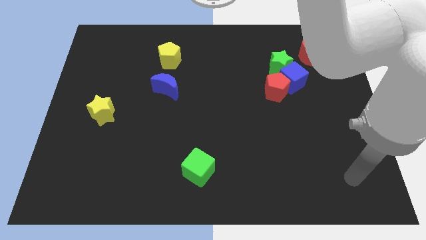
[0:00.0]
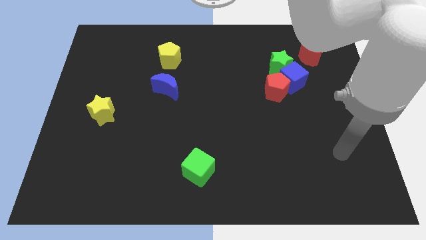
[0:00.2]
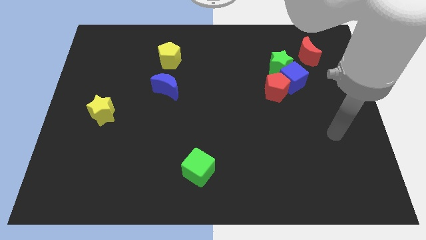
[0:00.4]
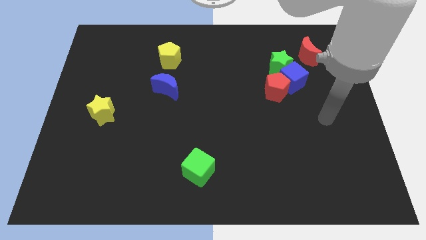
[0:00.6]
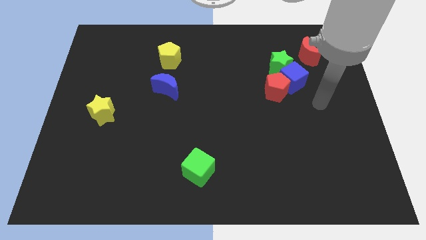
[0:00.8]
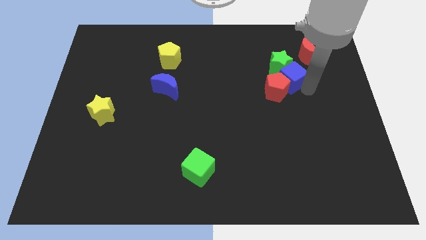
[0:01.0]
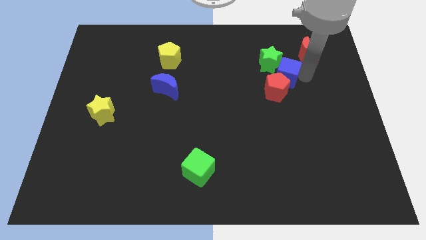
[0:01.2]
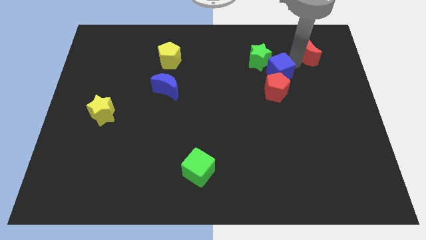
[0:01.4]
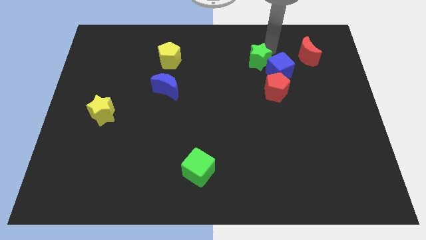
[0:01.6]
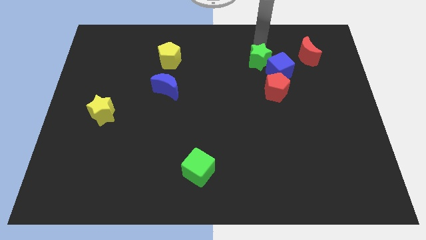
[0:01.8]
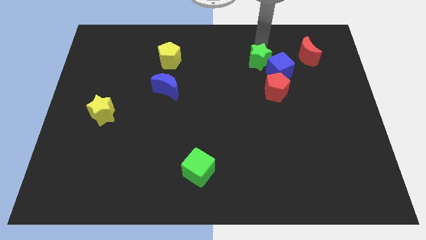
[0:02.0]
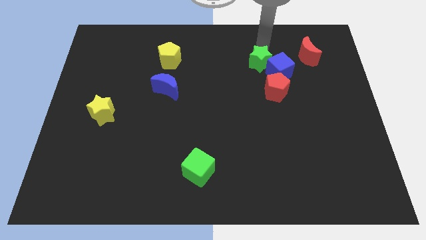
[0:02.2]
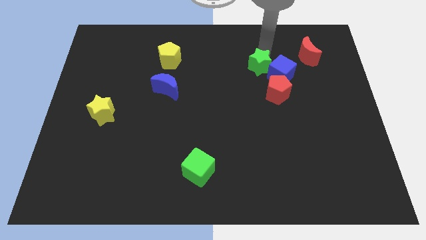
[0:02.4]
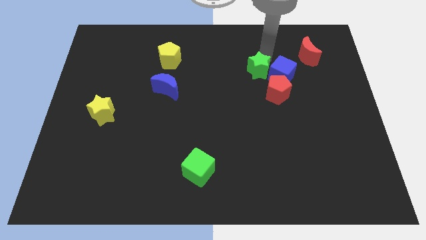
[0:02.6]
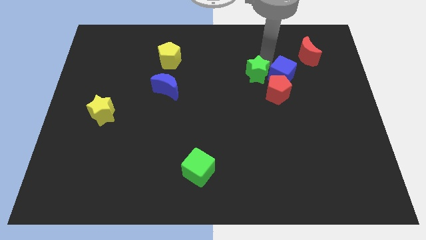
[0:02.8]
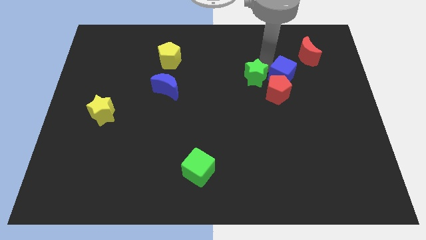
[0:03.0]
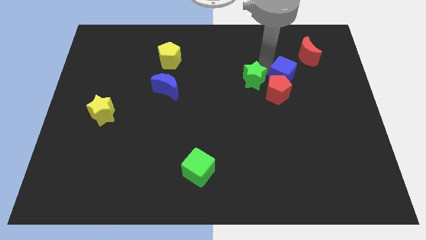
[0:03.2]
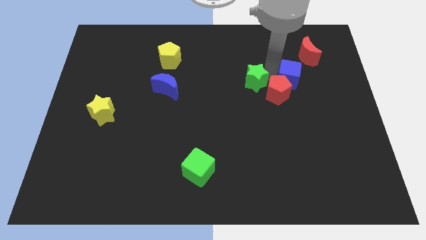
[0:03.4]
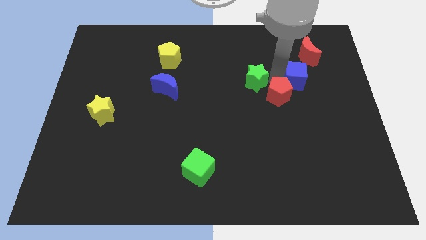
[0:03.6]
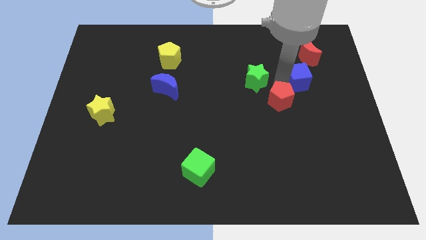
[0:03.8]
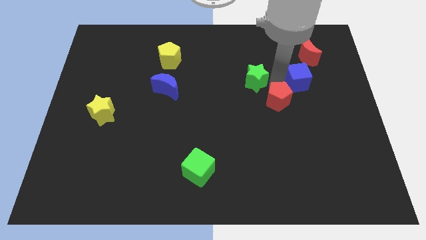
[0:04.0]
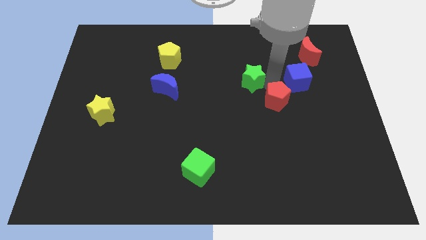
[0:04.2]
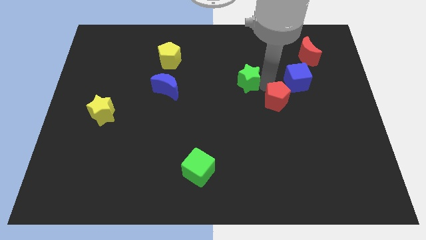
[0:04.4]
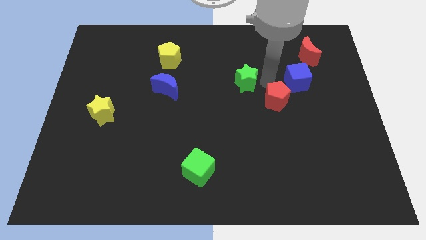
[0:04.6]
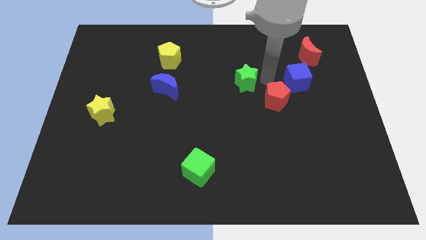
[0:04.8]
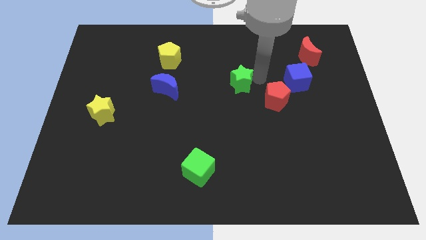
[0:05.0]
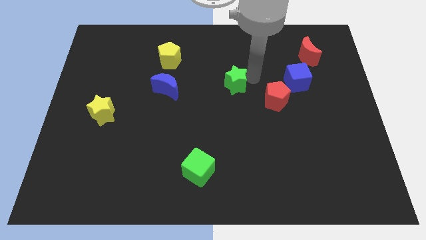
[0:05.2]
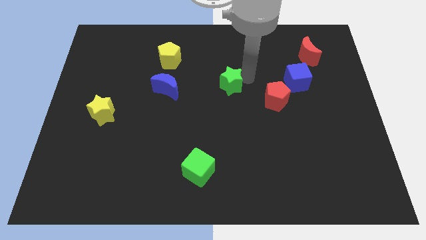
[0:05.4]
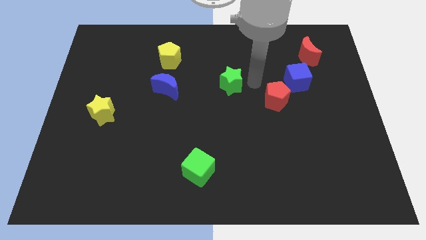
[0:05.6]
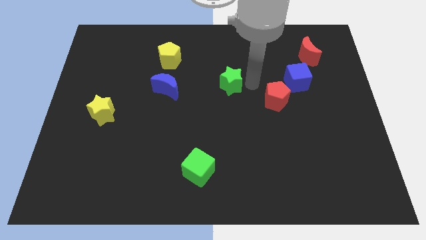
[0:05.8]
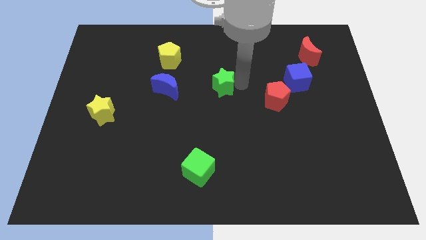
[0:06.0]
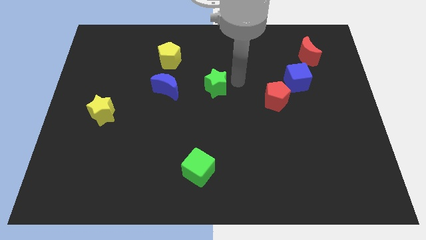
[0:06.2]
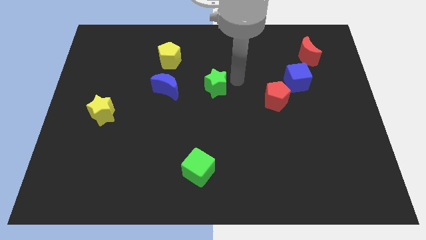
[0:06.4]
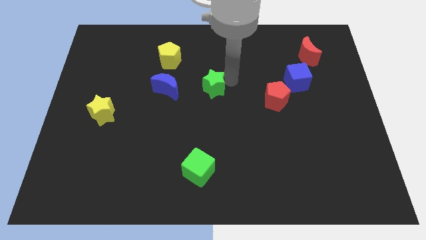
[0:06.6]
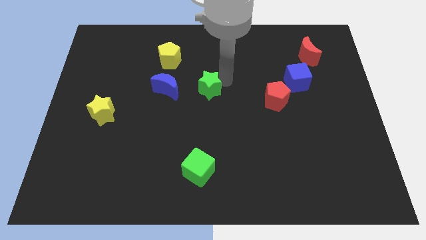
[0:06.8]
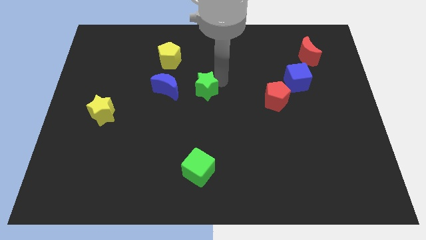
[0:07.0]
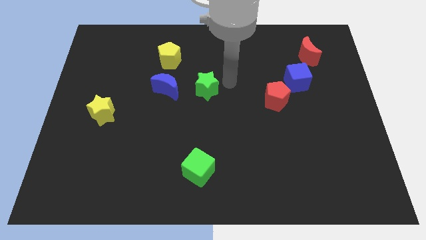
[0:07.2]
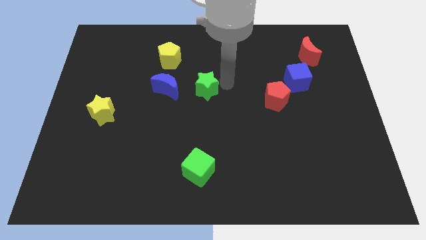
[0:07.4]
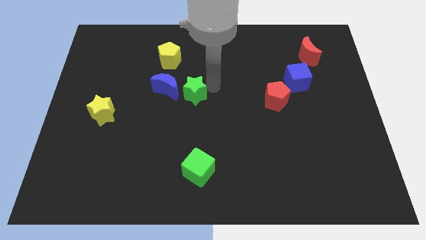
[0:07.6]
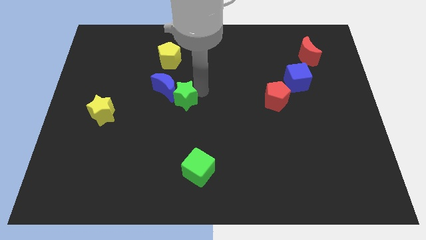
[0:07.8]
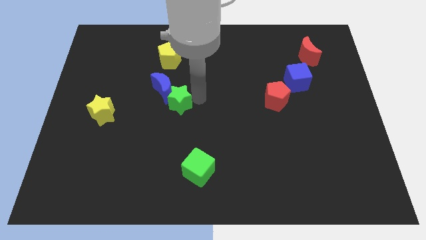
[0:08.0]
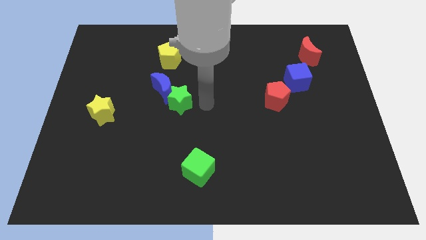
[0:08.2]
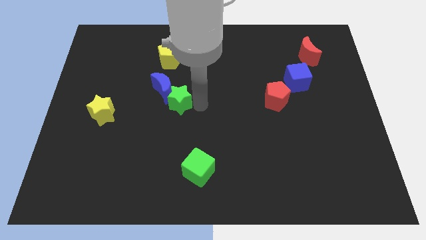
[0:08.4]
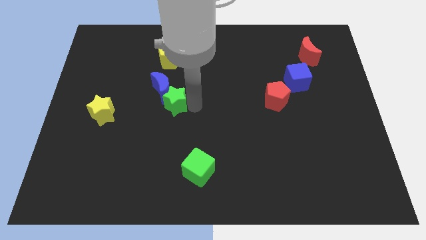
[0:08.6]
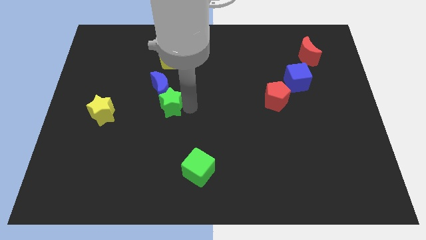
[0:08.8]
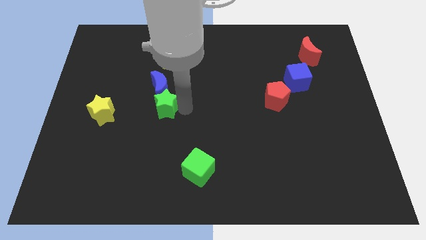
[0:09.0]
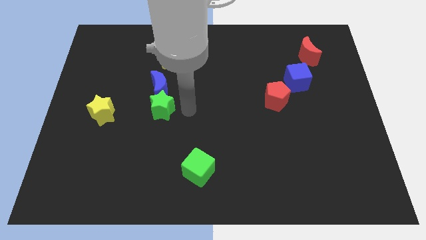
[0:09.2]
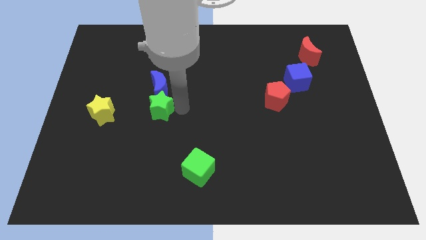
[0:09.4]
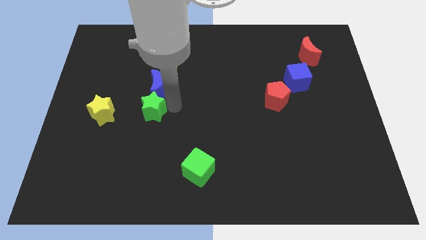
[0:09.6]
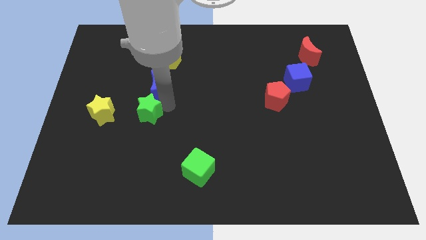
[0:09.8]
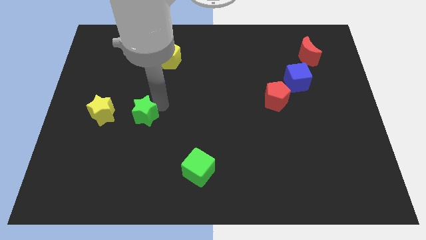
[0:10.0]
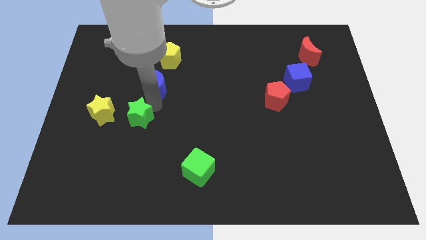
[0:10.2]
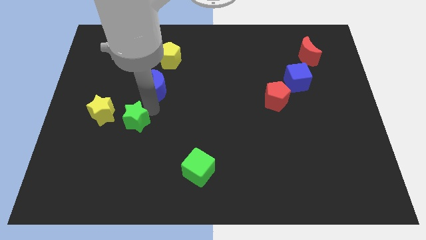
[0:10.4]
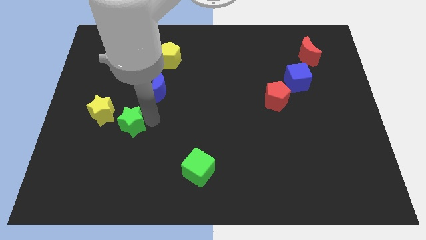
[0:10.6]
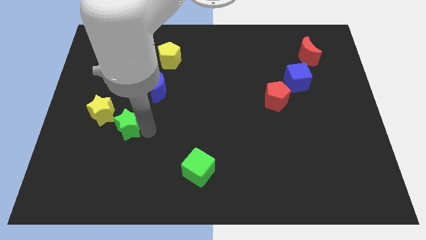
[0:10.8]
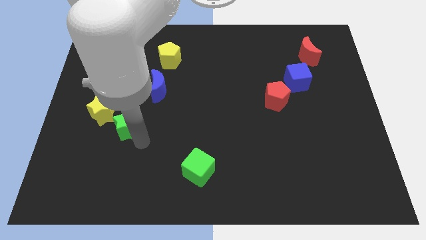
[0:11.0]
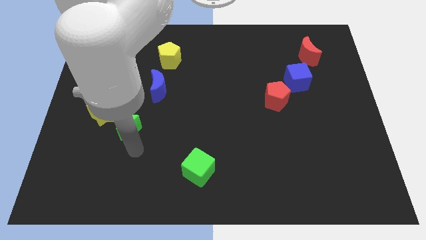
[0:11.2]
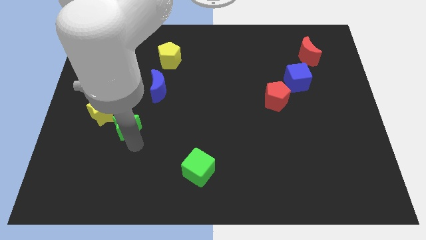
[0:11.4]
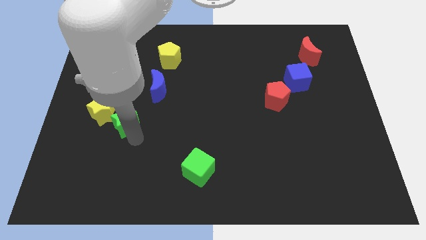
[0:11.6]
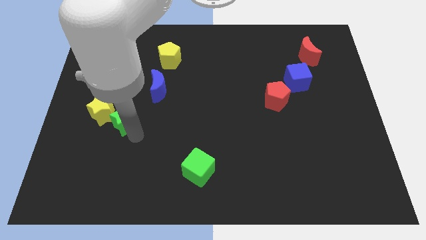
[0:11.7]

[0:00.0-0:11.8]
push the green star towards the yellow star

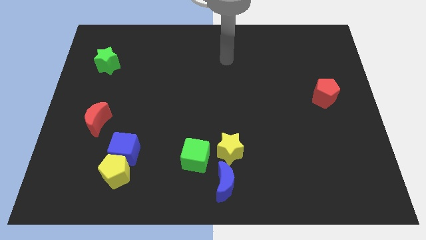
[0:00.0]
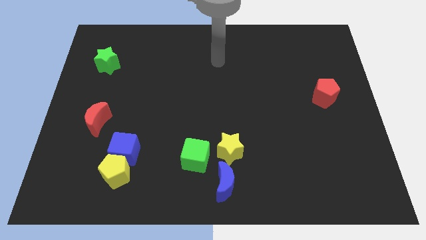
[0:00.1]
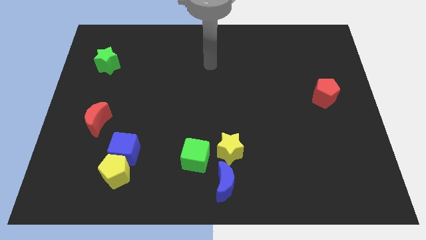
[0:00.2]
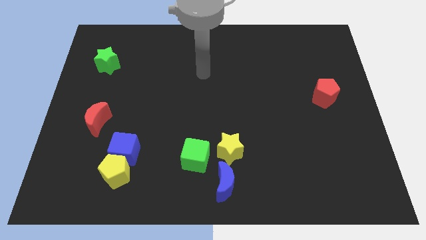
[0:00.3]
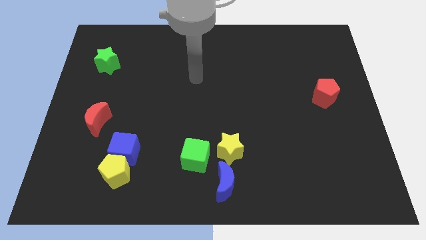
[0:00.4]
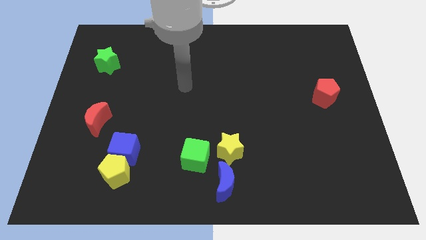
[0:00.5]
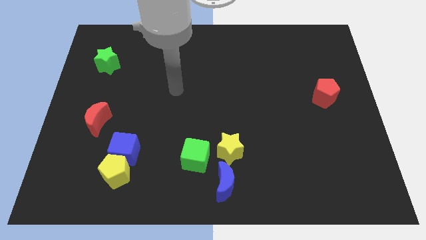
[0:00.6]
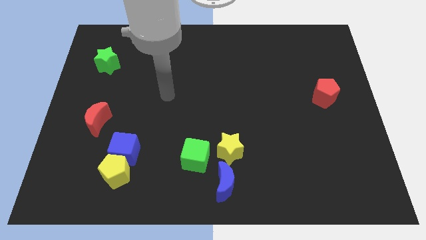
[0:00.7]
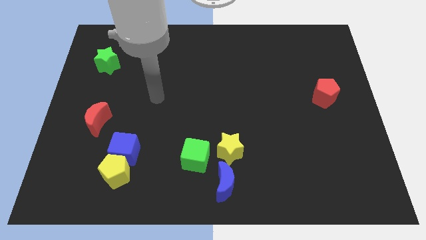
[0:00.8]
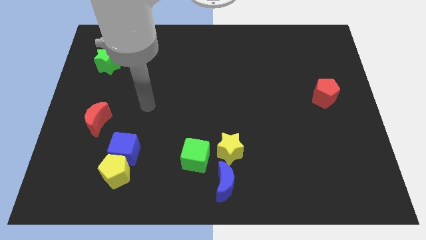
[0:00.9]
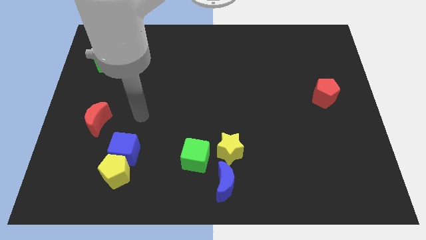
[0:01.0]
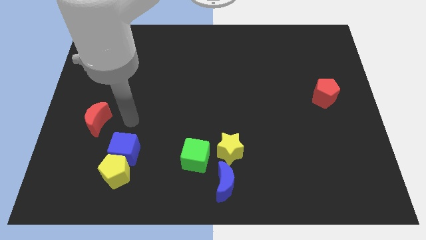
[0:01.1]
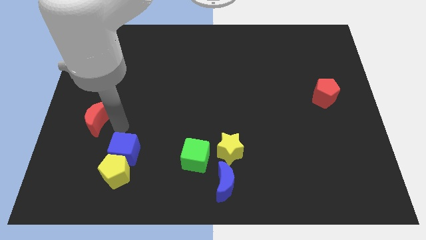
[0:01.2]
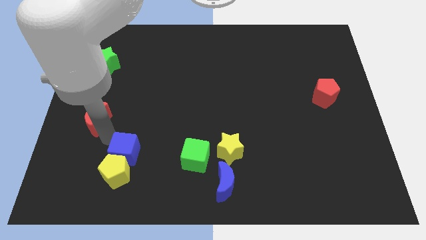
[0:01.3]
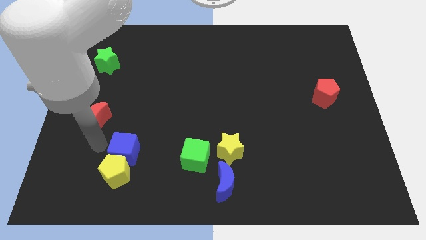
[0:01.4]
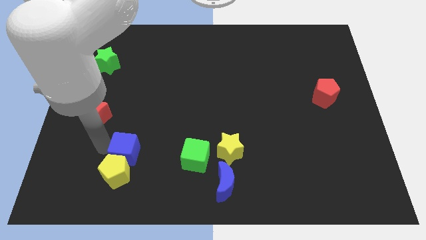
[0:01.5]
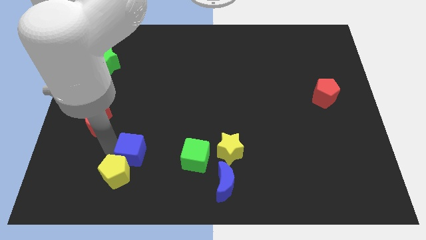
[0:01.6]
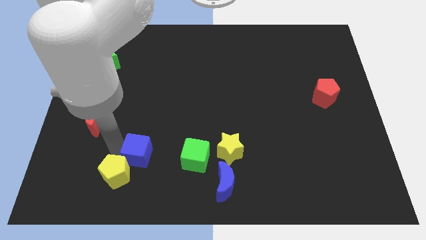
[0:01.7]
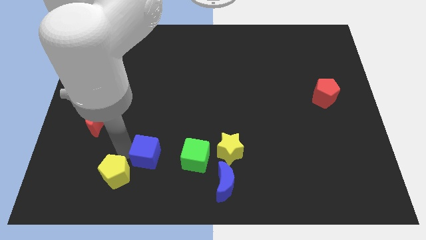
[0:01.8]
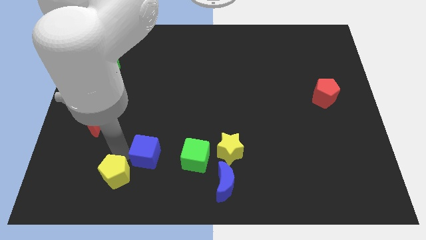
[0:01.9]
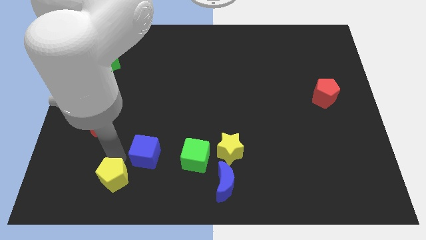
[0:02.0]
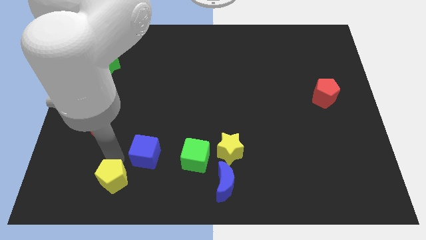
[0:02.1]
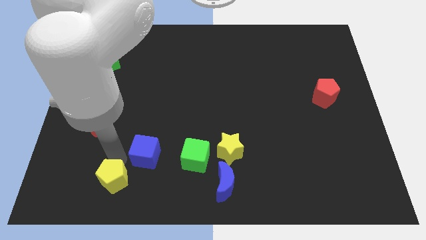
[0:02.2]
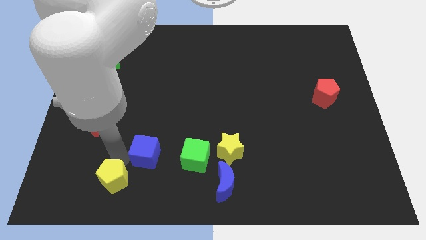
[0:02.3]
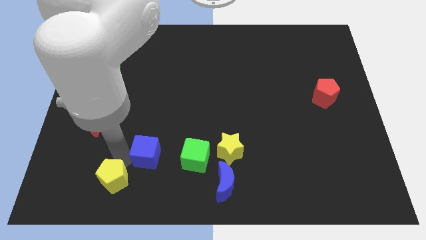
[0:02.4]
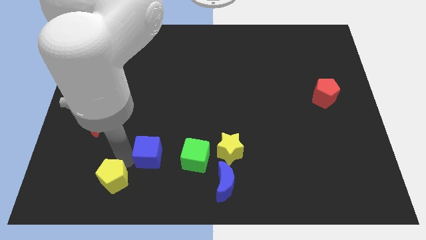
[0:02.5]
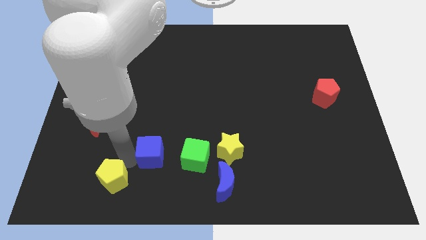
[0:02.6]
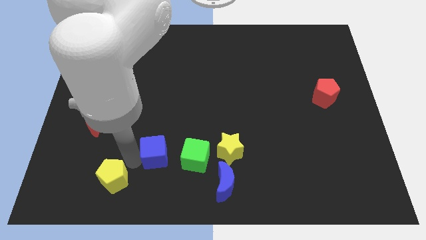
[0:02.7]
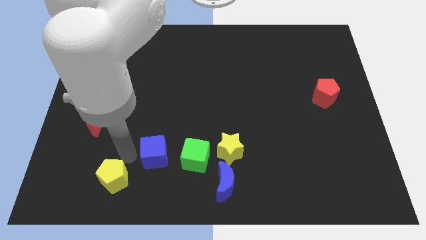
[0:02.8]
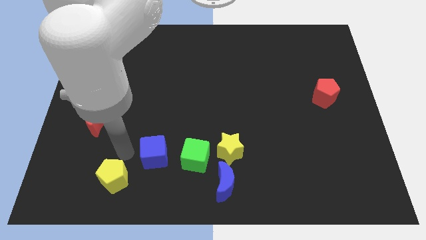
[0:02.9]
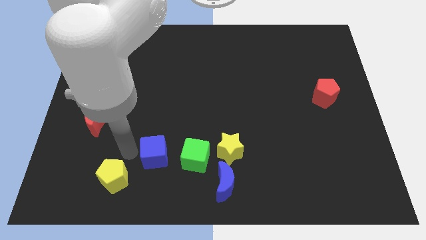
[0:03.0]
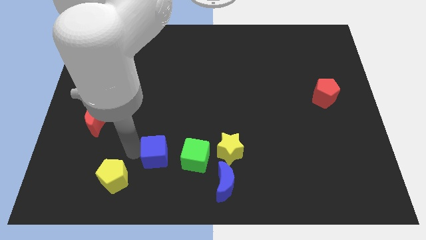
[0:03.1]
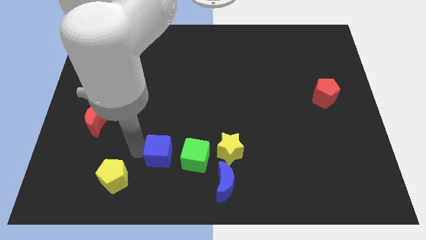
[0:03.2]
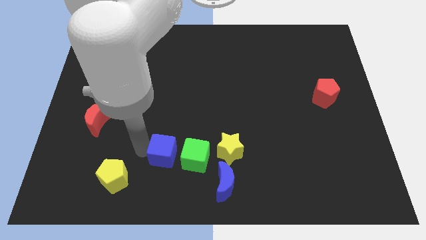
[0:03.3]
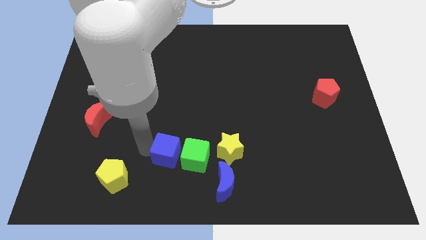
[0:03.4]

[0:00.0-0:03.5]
slide the blue cube next to the green cube
